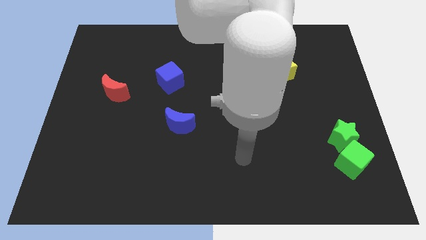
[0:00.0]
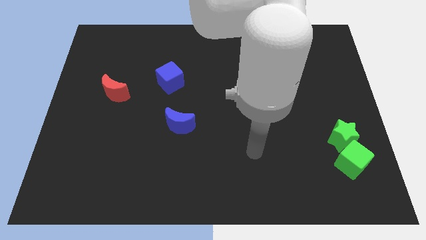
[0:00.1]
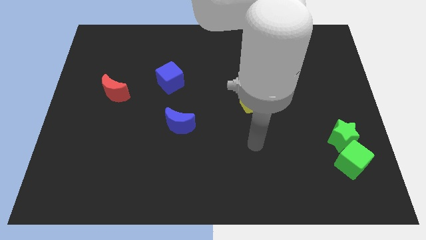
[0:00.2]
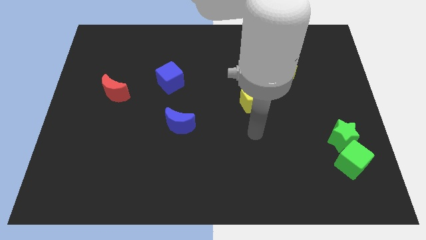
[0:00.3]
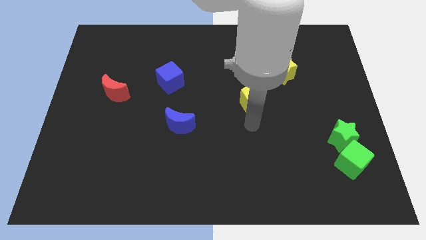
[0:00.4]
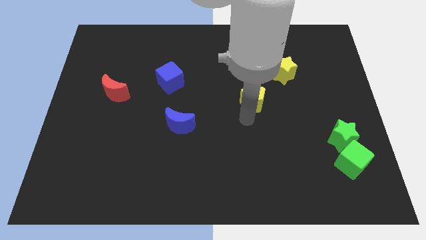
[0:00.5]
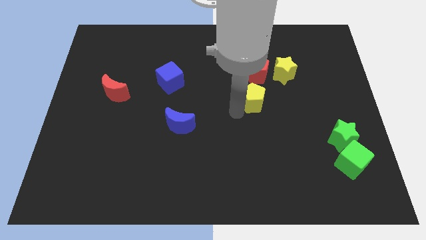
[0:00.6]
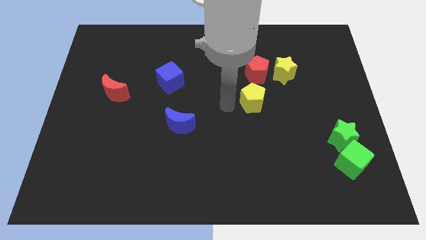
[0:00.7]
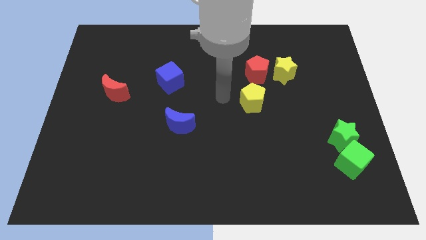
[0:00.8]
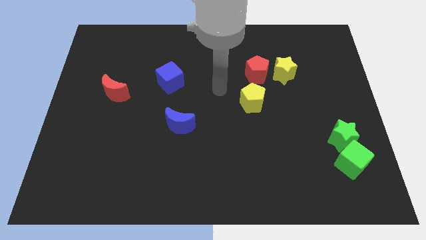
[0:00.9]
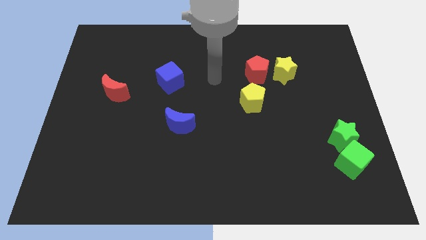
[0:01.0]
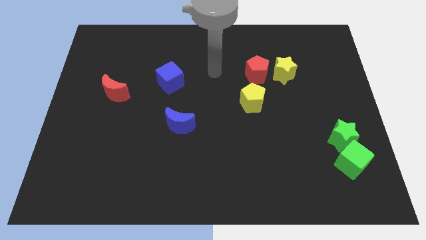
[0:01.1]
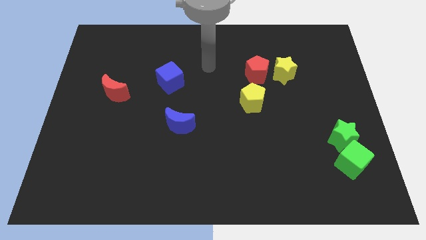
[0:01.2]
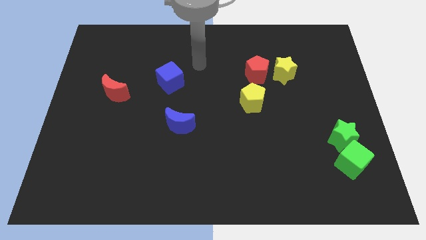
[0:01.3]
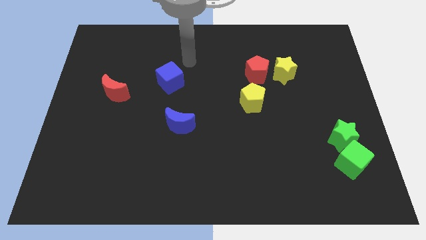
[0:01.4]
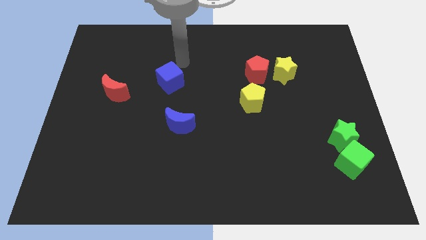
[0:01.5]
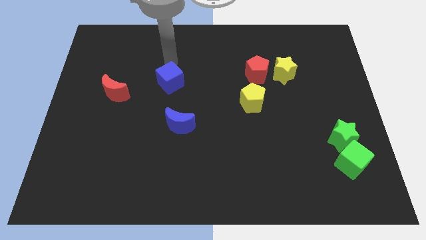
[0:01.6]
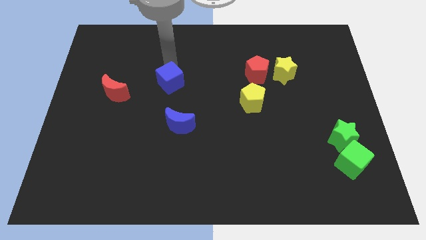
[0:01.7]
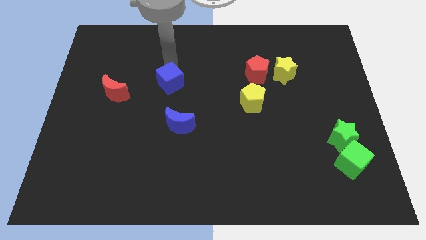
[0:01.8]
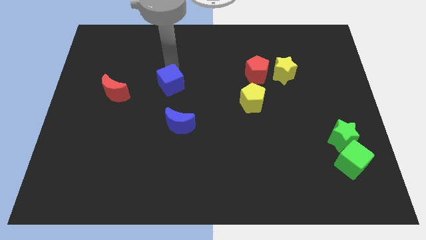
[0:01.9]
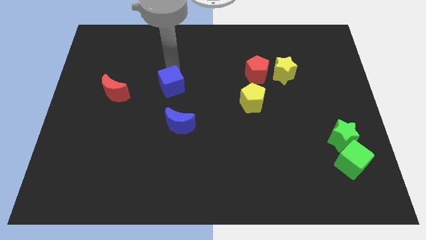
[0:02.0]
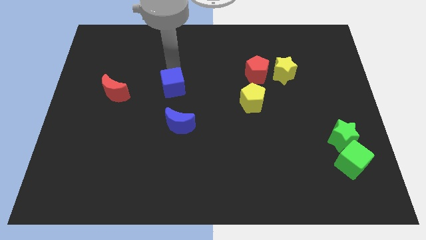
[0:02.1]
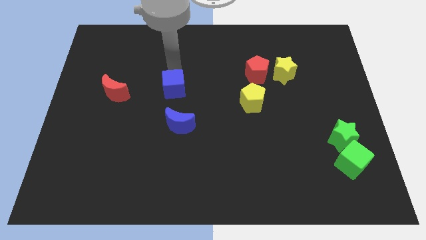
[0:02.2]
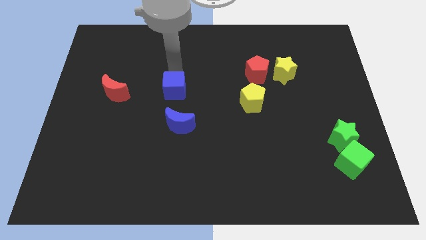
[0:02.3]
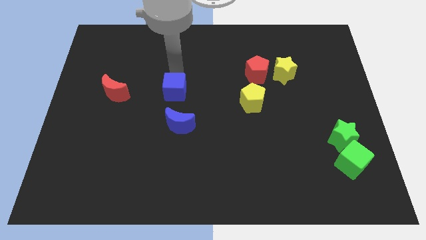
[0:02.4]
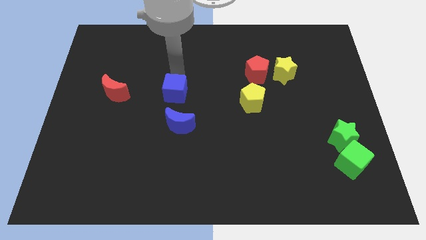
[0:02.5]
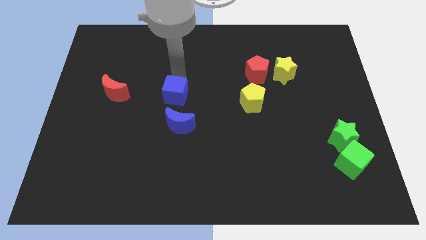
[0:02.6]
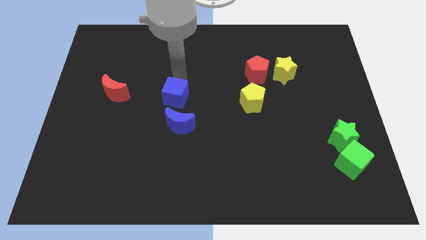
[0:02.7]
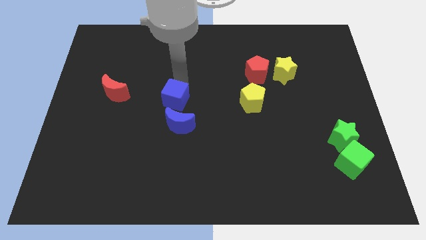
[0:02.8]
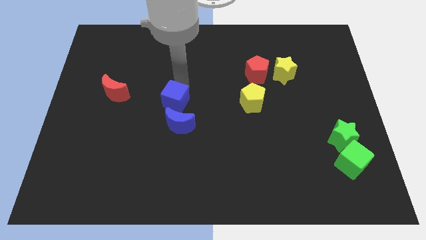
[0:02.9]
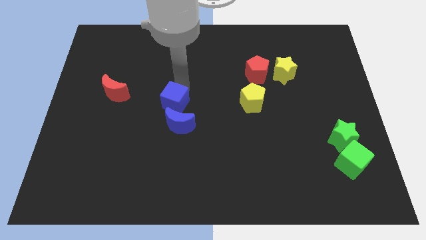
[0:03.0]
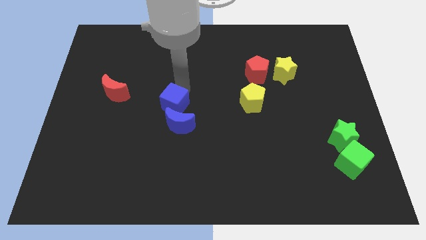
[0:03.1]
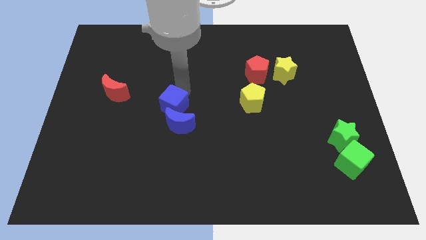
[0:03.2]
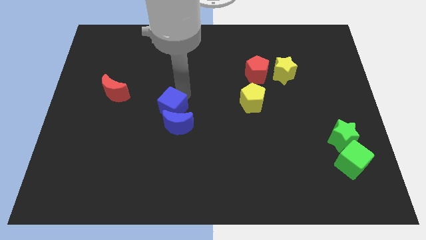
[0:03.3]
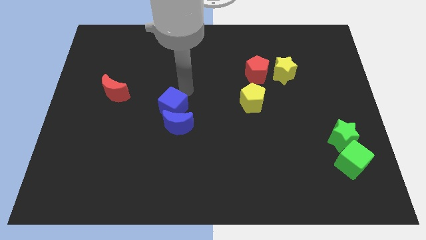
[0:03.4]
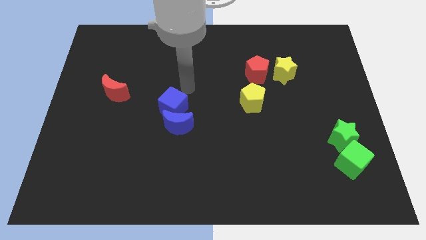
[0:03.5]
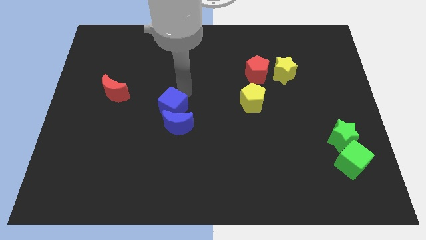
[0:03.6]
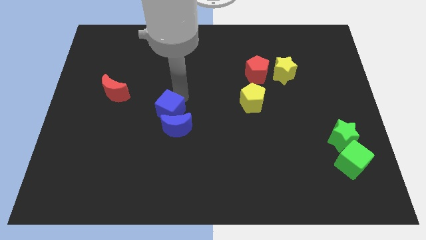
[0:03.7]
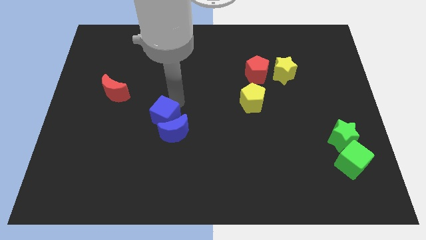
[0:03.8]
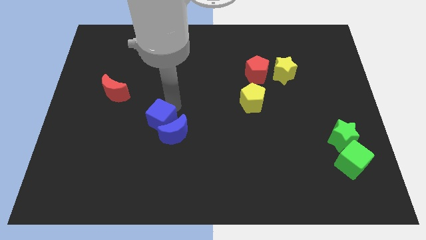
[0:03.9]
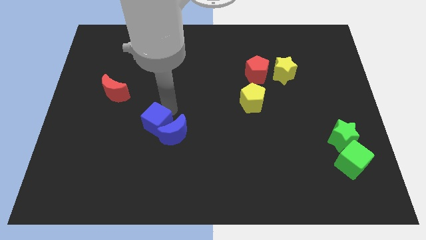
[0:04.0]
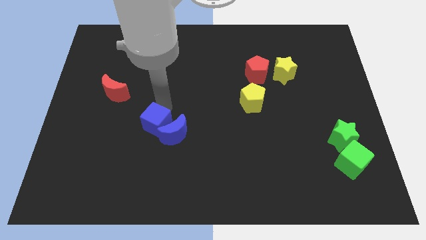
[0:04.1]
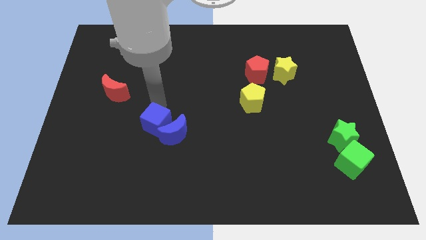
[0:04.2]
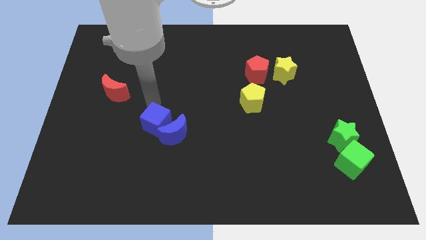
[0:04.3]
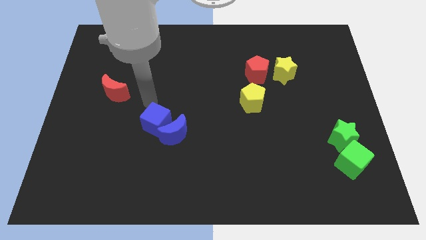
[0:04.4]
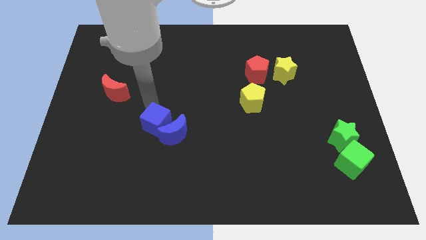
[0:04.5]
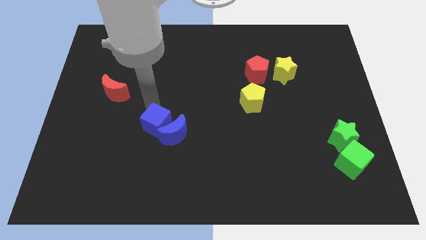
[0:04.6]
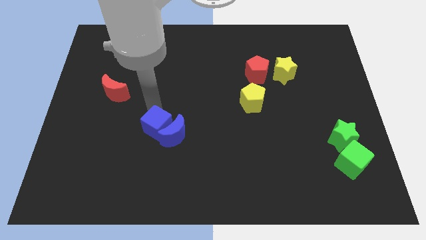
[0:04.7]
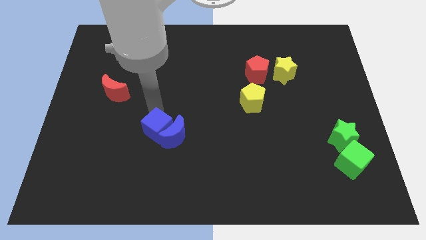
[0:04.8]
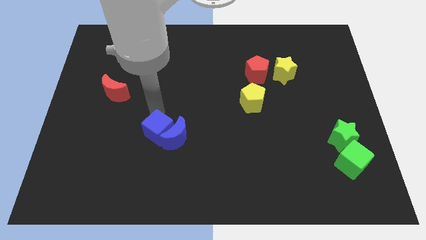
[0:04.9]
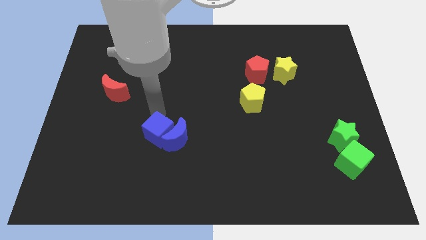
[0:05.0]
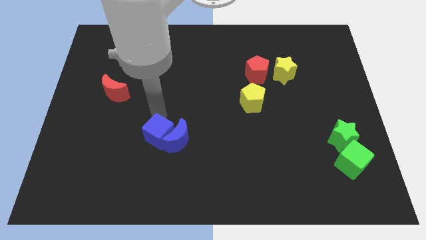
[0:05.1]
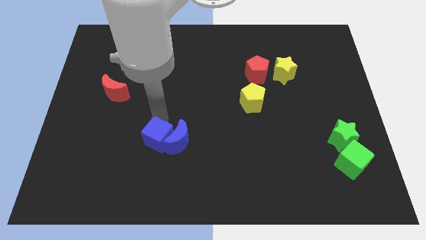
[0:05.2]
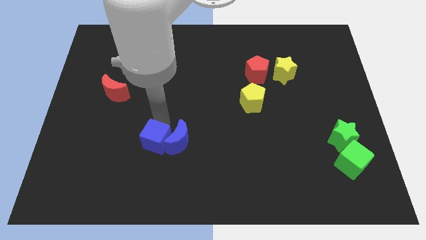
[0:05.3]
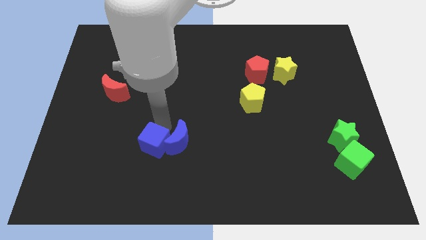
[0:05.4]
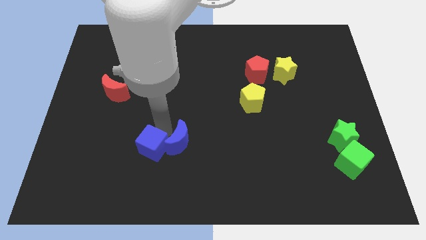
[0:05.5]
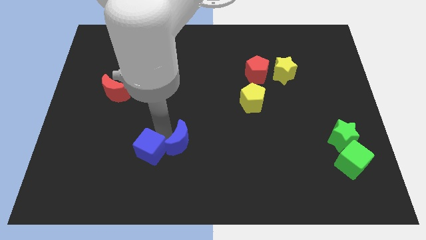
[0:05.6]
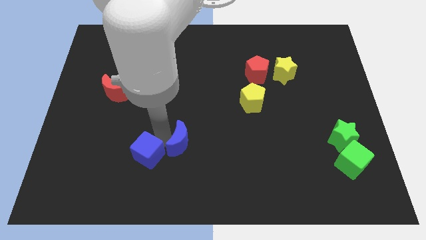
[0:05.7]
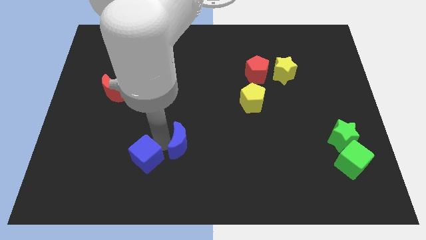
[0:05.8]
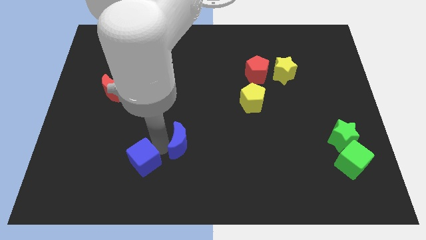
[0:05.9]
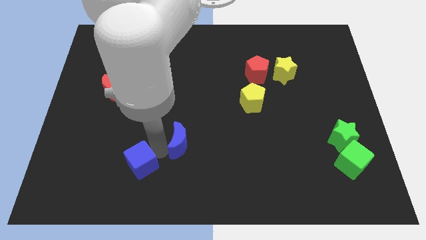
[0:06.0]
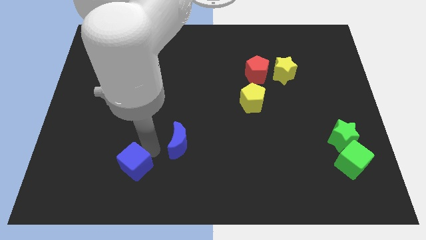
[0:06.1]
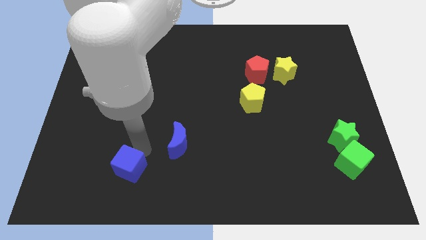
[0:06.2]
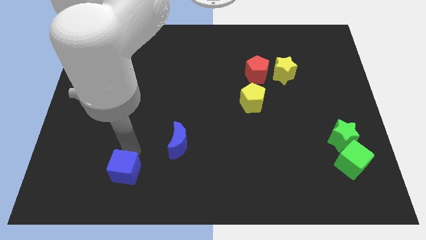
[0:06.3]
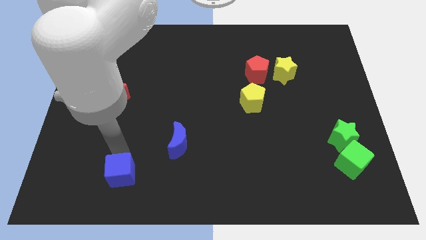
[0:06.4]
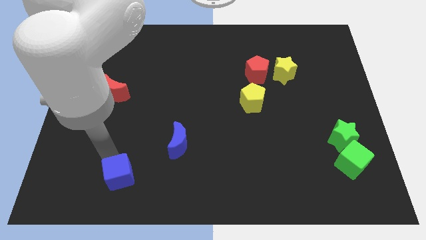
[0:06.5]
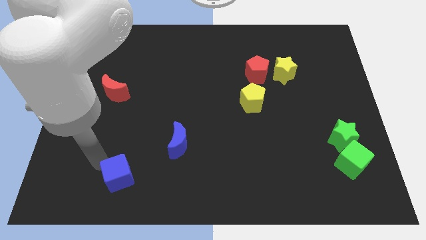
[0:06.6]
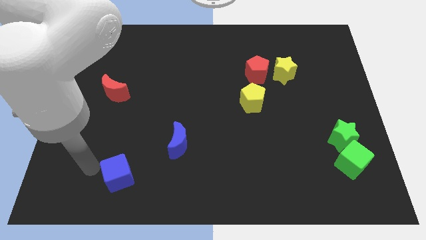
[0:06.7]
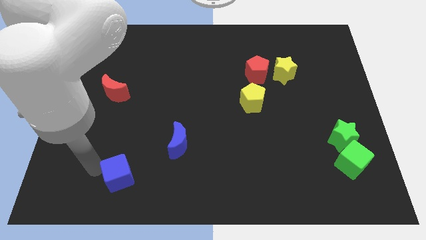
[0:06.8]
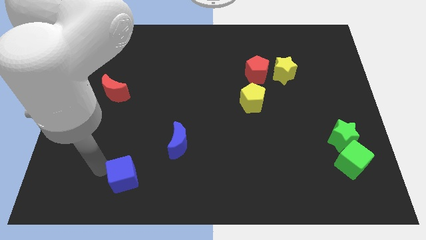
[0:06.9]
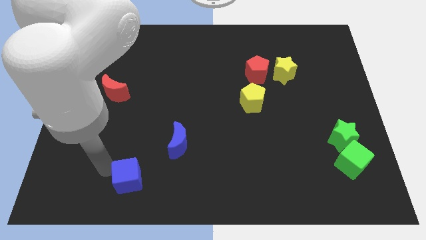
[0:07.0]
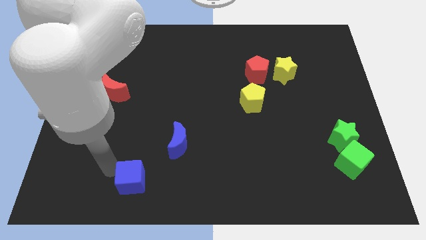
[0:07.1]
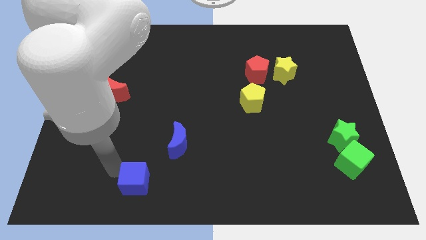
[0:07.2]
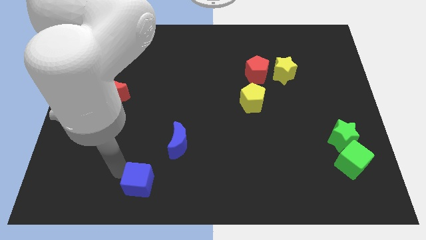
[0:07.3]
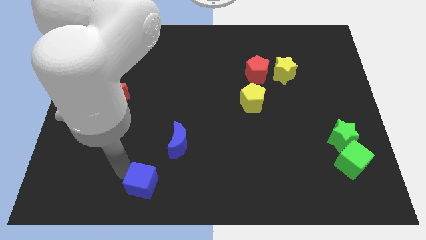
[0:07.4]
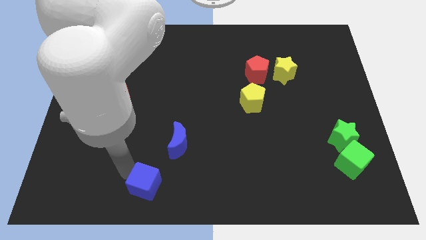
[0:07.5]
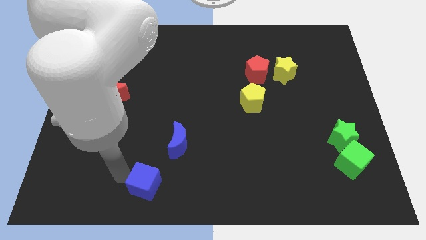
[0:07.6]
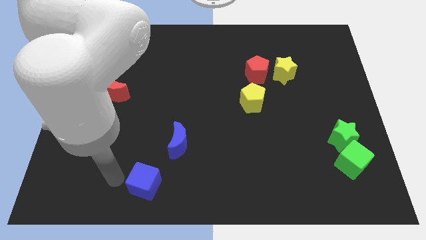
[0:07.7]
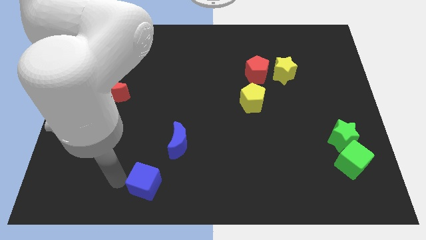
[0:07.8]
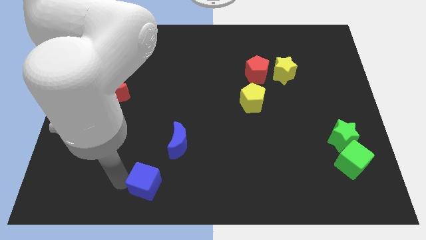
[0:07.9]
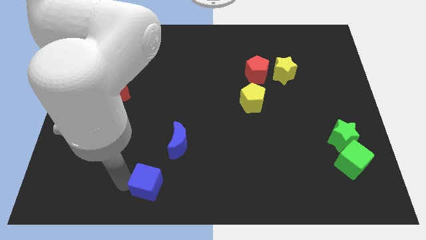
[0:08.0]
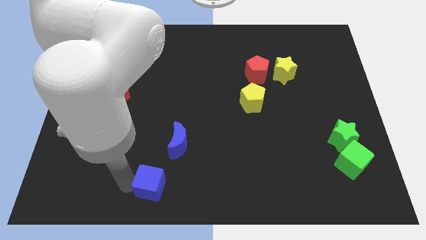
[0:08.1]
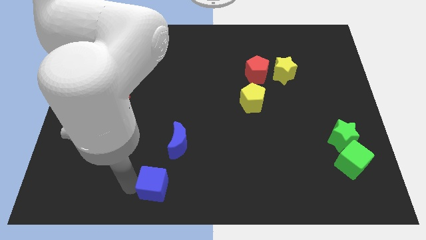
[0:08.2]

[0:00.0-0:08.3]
push the blue cube to the bottom side of the blue moon
